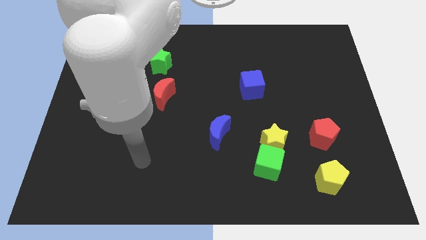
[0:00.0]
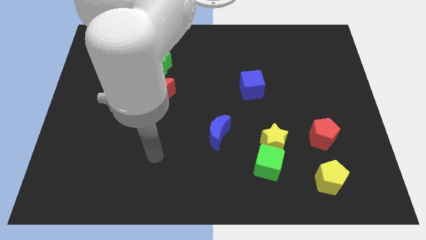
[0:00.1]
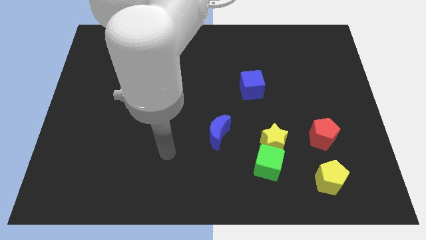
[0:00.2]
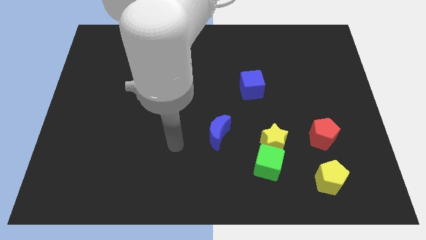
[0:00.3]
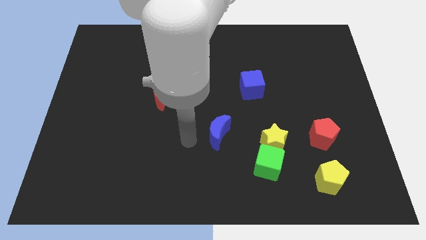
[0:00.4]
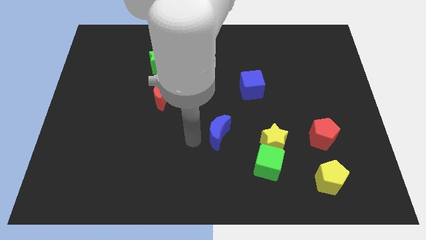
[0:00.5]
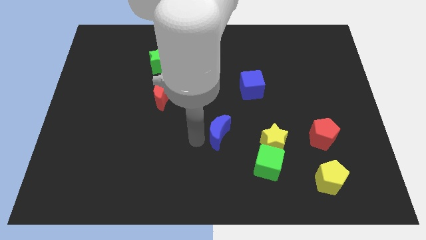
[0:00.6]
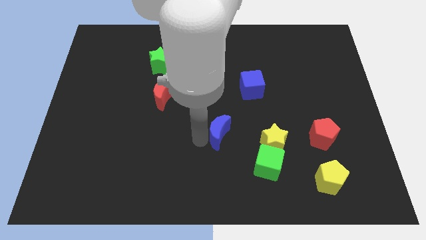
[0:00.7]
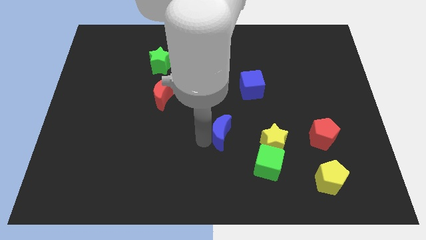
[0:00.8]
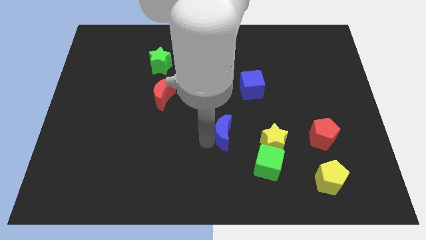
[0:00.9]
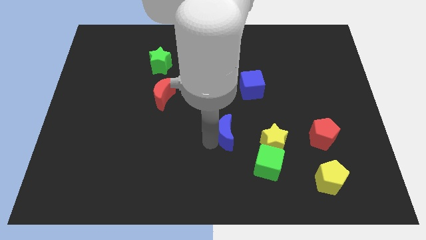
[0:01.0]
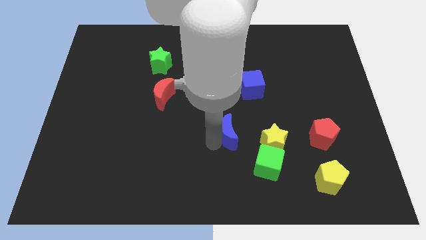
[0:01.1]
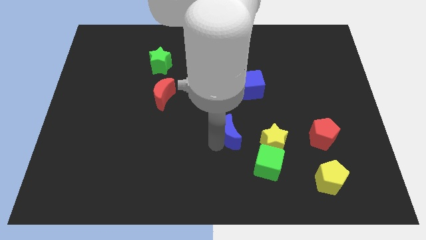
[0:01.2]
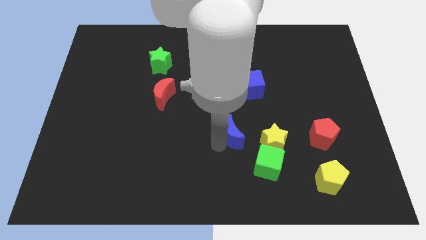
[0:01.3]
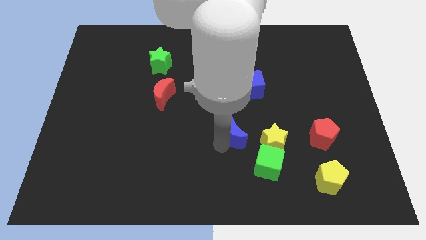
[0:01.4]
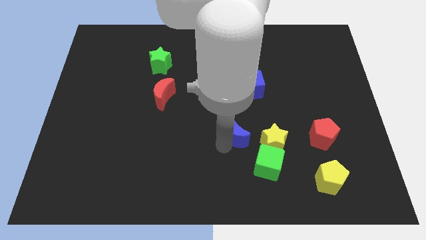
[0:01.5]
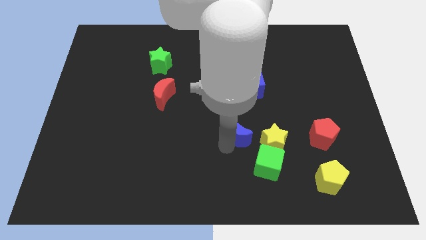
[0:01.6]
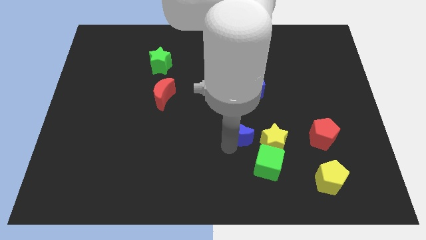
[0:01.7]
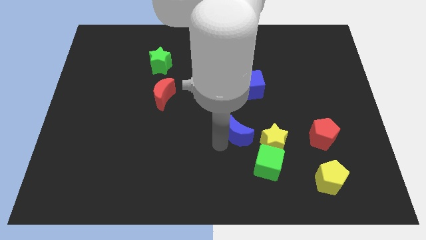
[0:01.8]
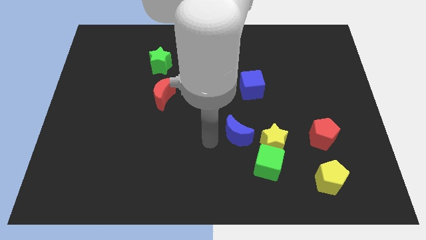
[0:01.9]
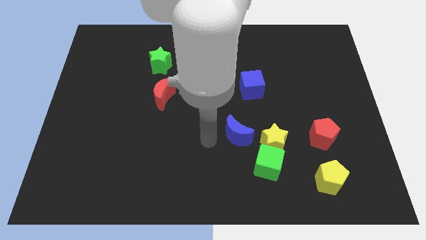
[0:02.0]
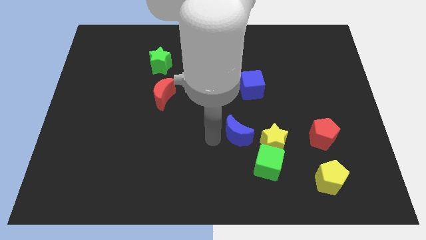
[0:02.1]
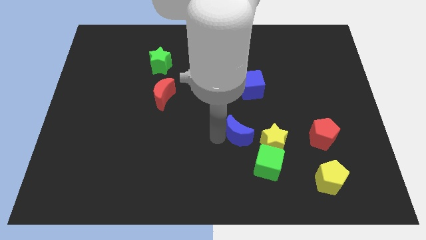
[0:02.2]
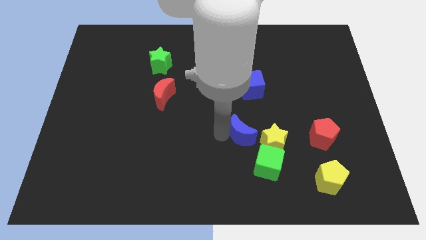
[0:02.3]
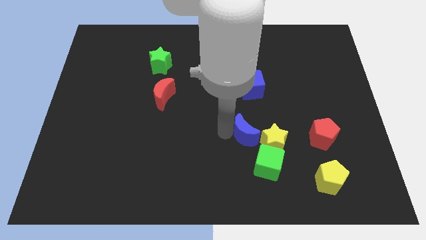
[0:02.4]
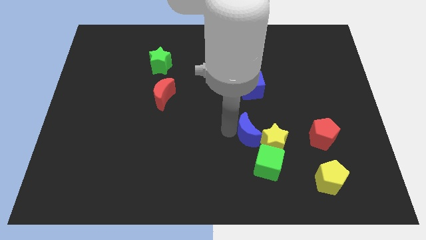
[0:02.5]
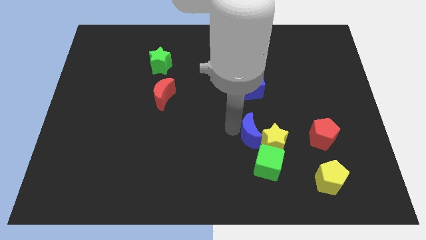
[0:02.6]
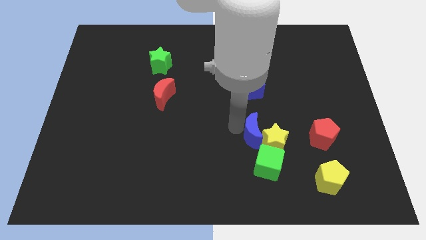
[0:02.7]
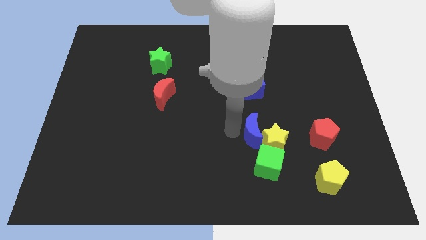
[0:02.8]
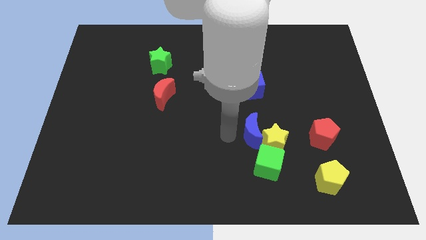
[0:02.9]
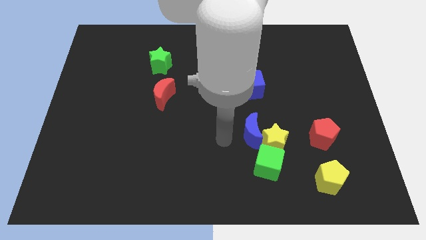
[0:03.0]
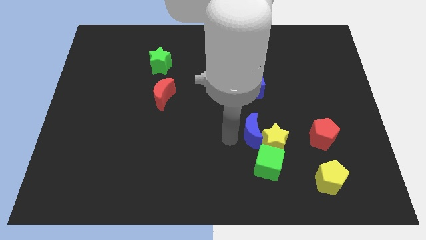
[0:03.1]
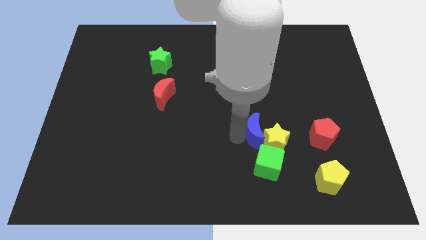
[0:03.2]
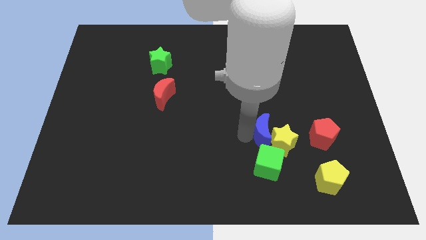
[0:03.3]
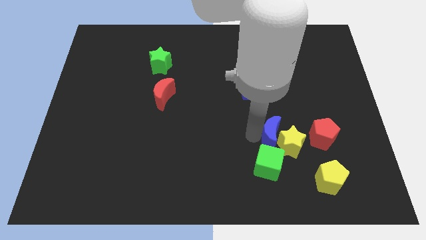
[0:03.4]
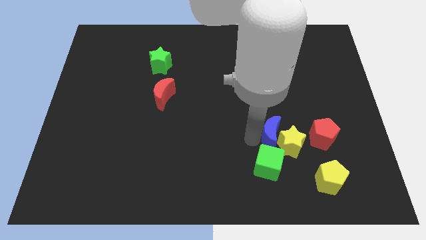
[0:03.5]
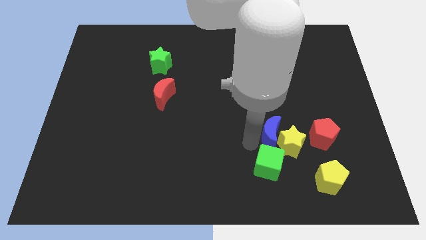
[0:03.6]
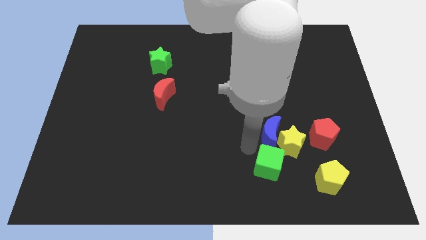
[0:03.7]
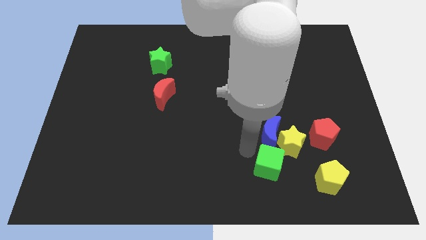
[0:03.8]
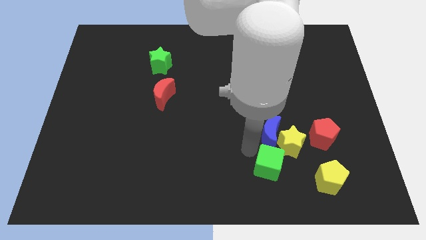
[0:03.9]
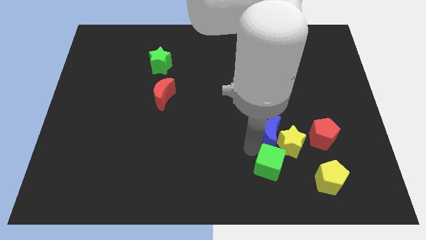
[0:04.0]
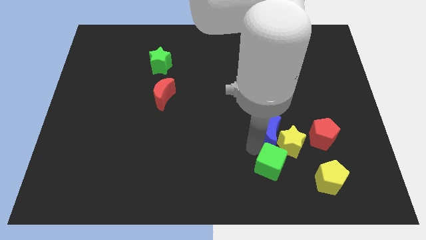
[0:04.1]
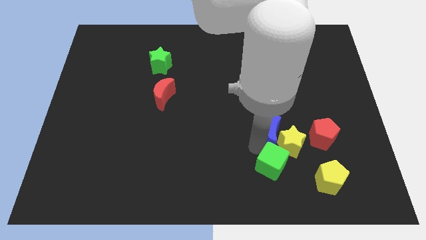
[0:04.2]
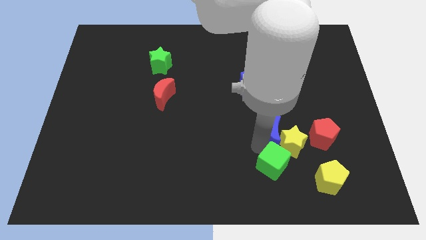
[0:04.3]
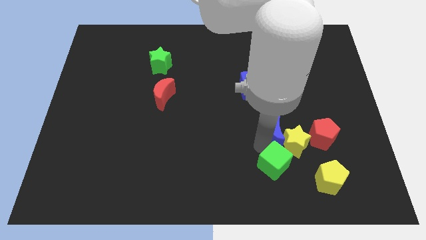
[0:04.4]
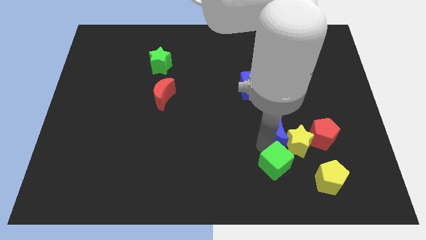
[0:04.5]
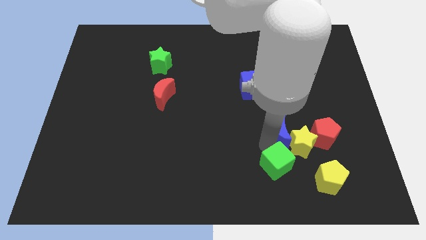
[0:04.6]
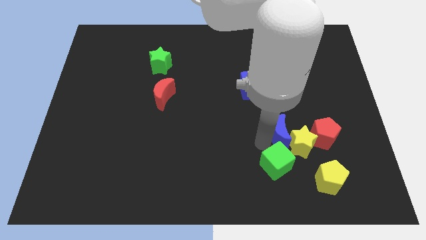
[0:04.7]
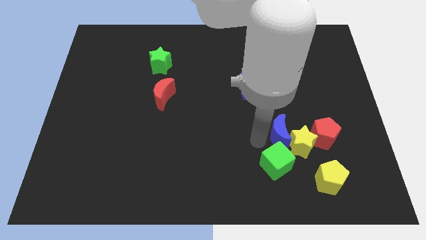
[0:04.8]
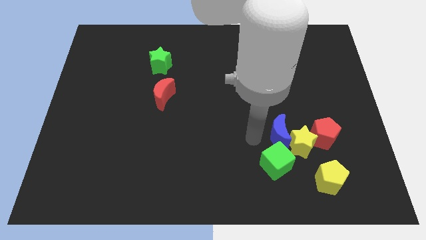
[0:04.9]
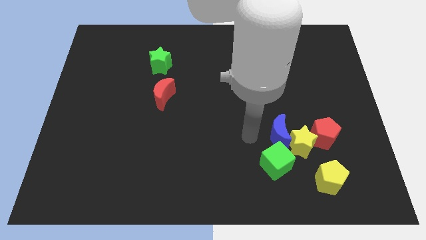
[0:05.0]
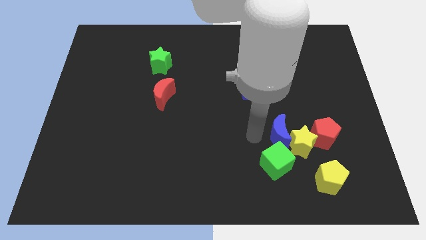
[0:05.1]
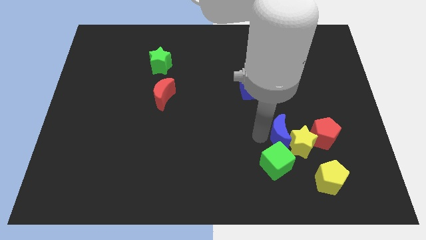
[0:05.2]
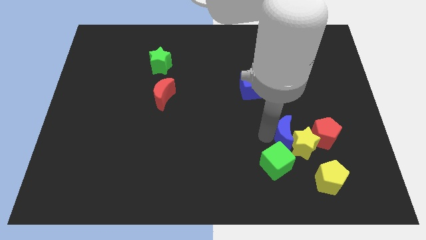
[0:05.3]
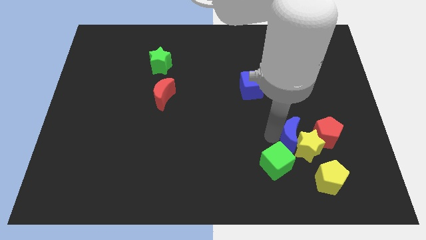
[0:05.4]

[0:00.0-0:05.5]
slide the blue moon to the top left side of the yellow pentagon

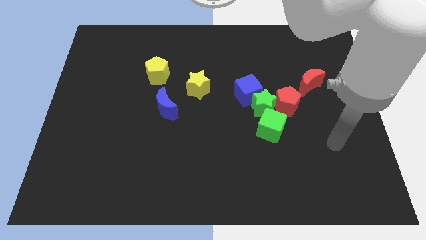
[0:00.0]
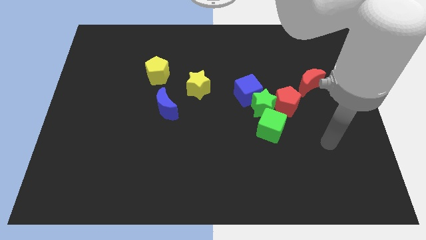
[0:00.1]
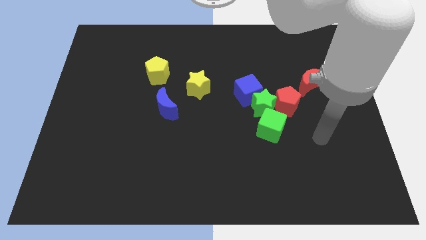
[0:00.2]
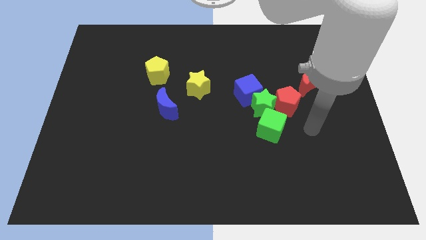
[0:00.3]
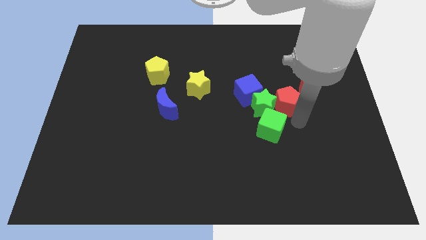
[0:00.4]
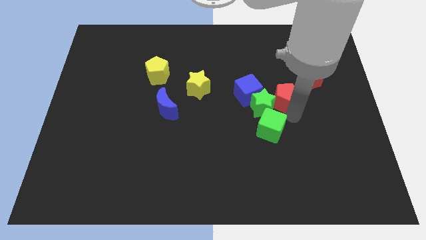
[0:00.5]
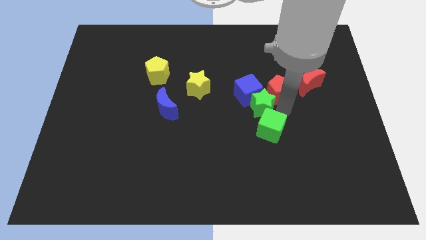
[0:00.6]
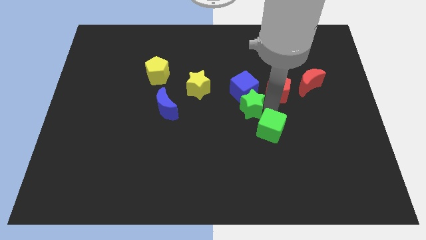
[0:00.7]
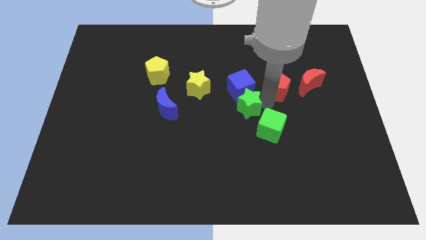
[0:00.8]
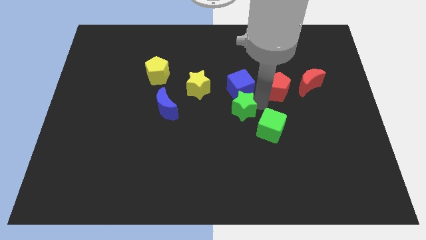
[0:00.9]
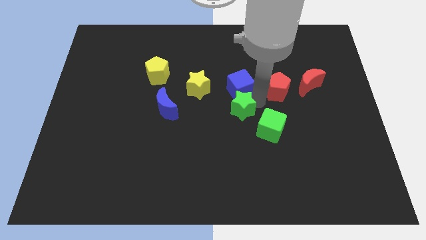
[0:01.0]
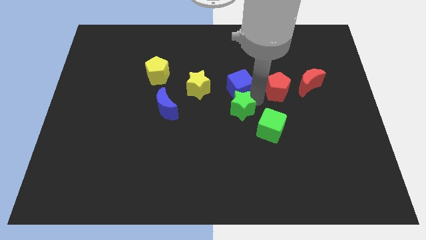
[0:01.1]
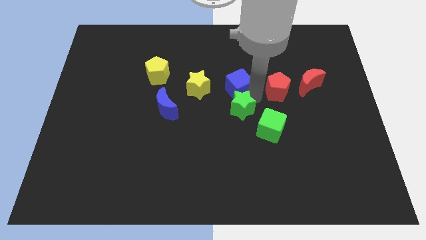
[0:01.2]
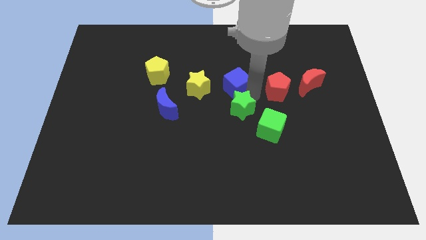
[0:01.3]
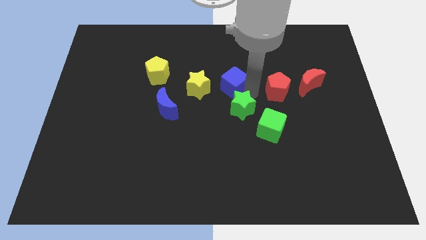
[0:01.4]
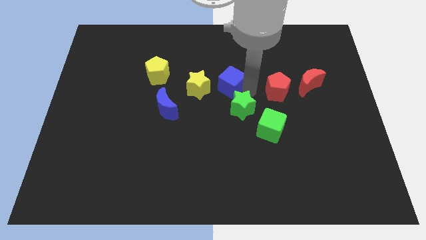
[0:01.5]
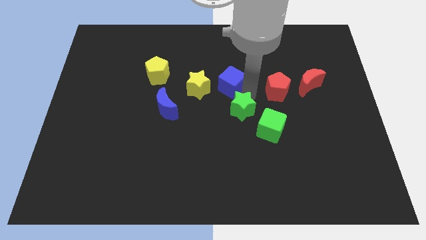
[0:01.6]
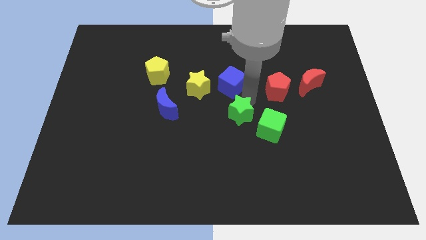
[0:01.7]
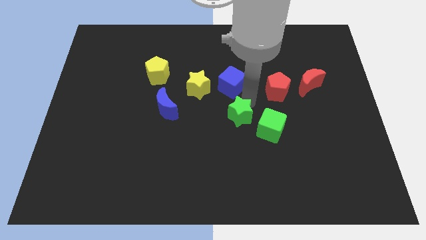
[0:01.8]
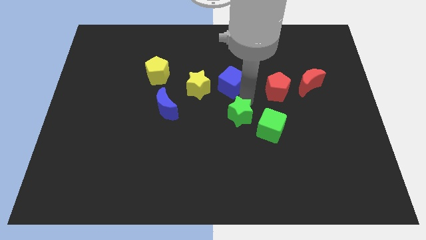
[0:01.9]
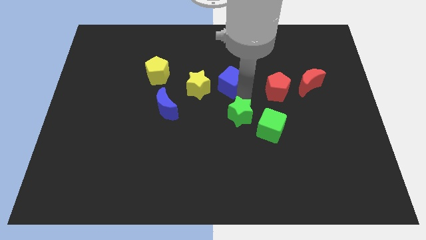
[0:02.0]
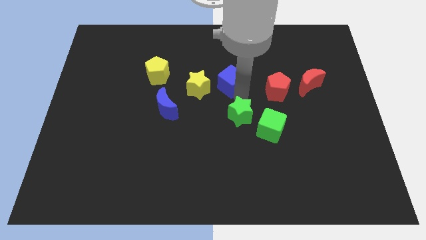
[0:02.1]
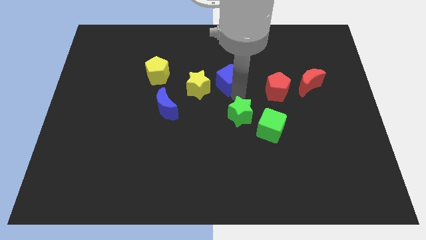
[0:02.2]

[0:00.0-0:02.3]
slide the blue cube diagonally up and to the right of the yellow star
